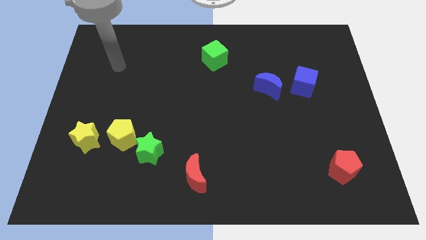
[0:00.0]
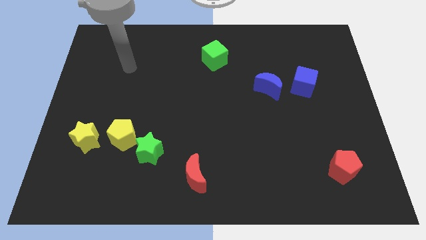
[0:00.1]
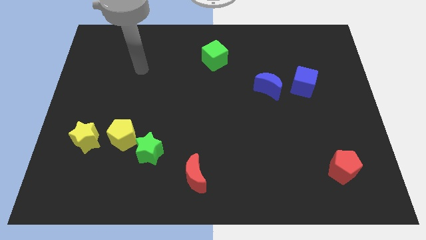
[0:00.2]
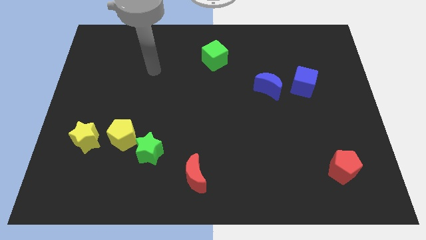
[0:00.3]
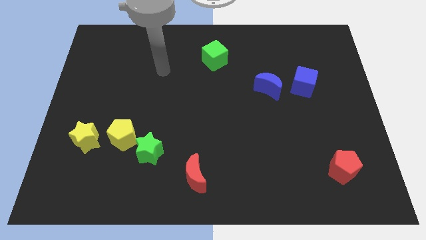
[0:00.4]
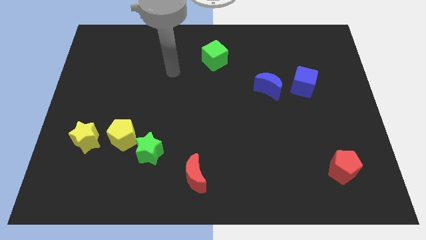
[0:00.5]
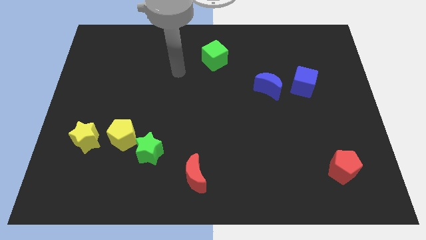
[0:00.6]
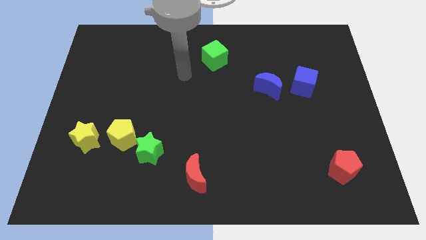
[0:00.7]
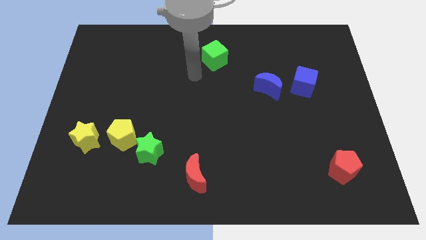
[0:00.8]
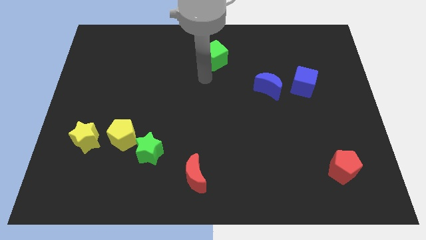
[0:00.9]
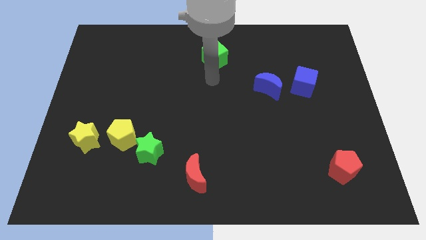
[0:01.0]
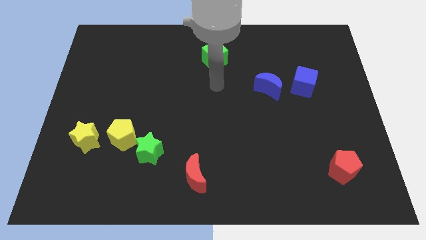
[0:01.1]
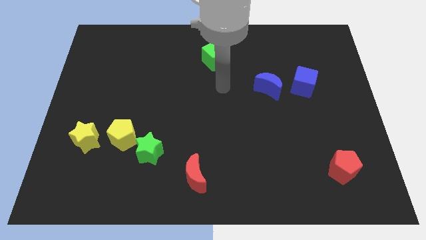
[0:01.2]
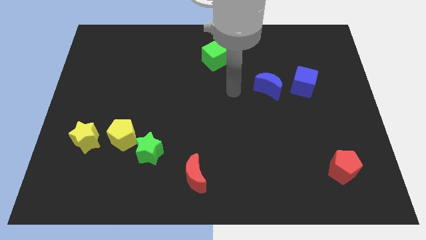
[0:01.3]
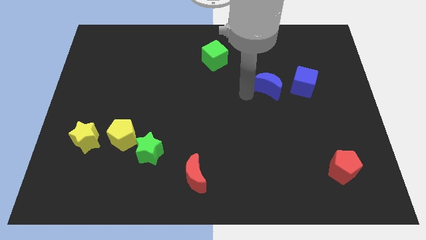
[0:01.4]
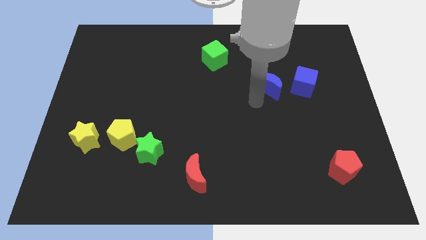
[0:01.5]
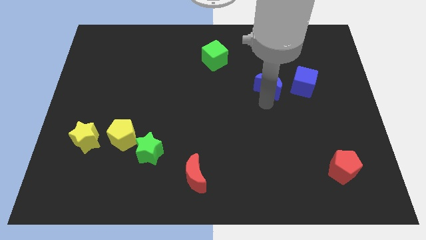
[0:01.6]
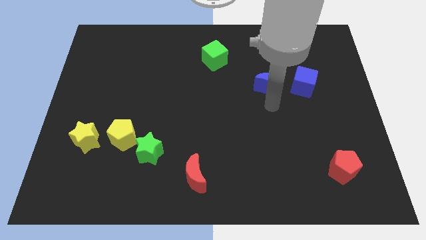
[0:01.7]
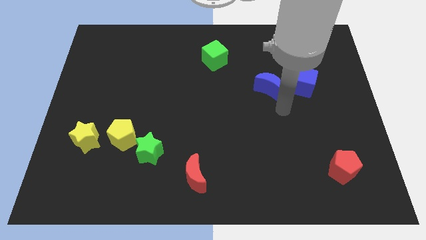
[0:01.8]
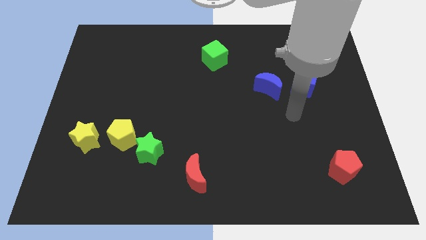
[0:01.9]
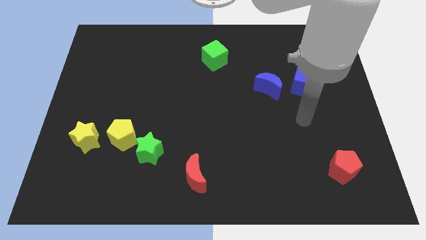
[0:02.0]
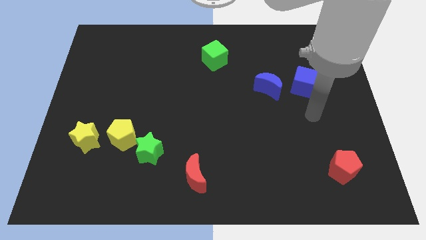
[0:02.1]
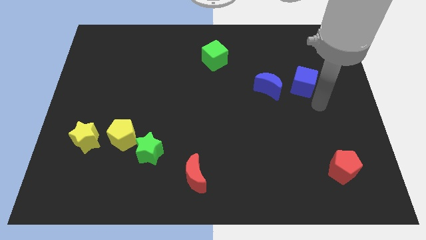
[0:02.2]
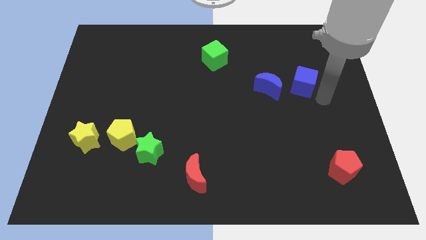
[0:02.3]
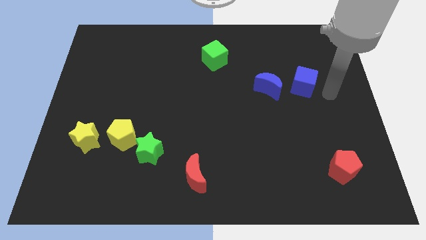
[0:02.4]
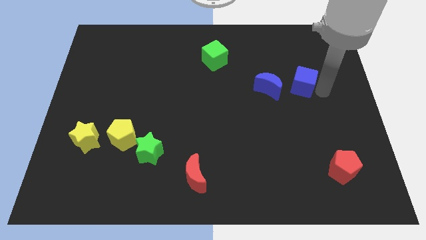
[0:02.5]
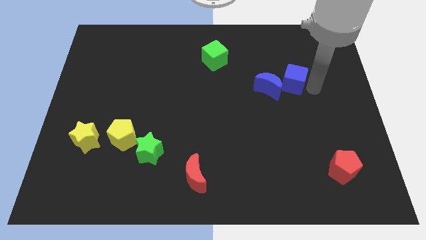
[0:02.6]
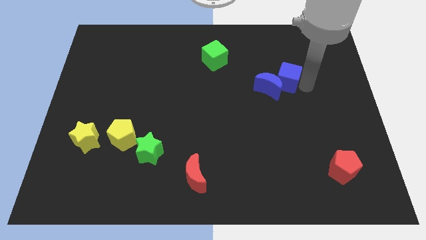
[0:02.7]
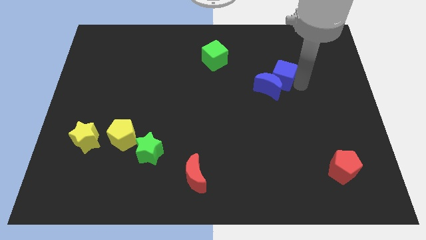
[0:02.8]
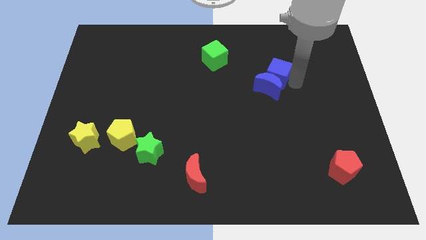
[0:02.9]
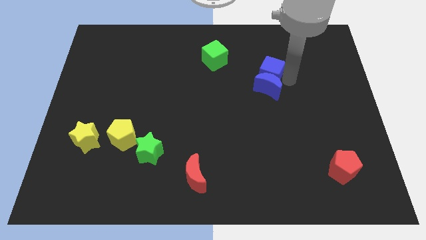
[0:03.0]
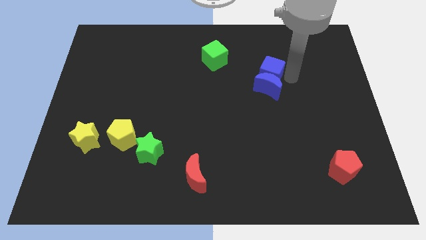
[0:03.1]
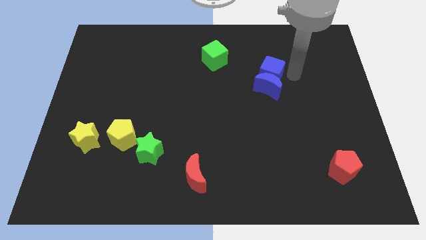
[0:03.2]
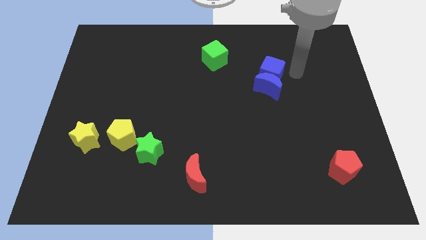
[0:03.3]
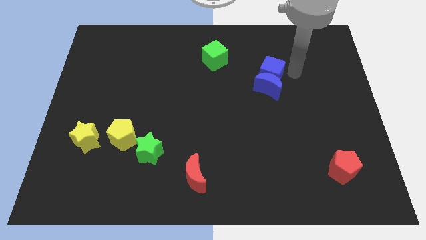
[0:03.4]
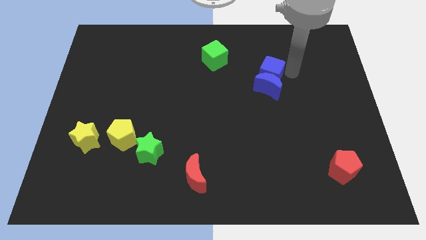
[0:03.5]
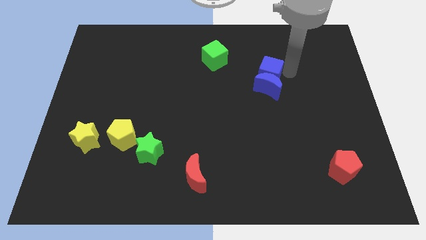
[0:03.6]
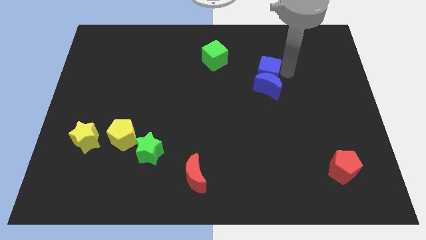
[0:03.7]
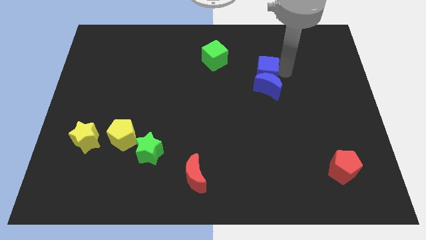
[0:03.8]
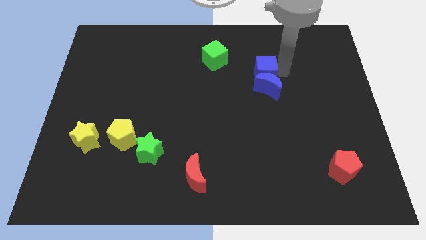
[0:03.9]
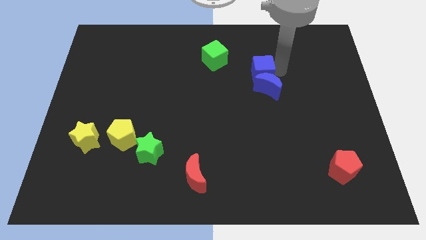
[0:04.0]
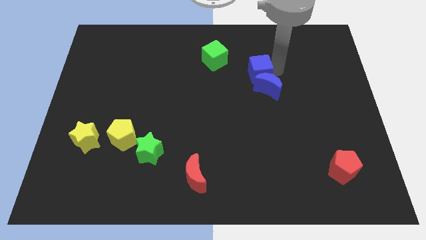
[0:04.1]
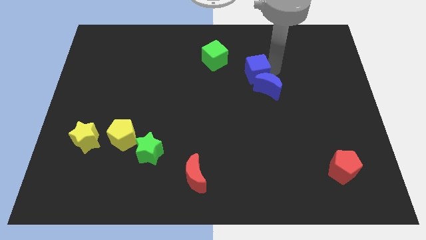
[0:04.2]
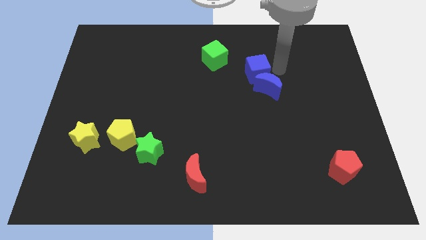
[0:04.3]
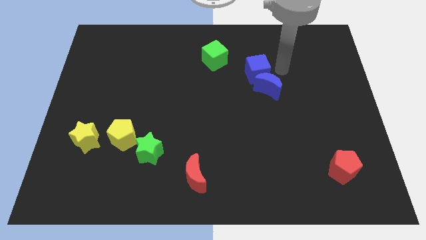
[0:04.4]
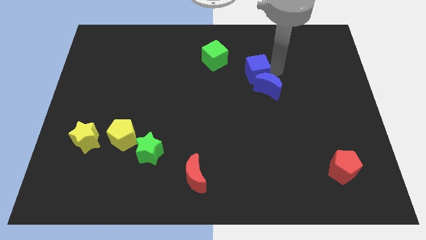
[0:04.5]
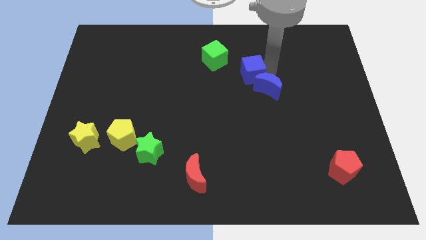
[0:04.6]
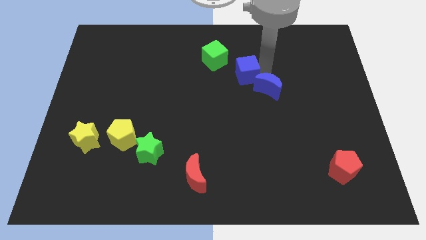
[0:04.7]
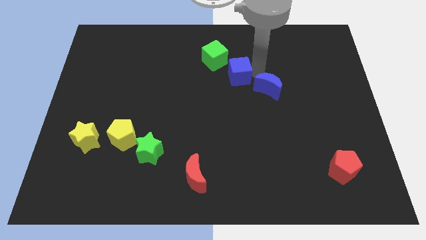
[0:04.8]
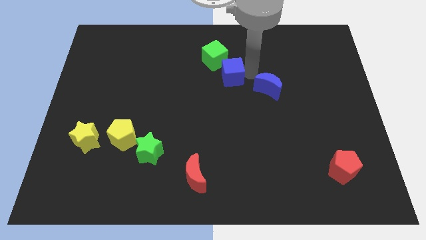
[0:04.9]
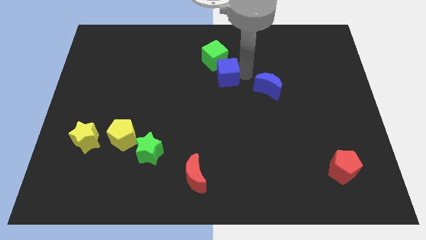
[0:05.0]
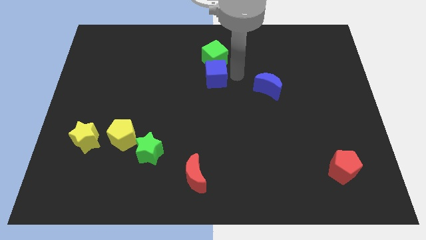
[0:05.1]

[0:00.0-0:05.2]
move the blue cube left

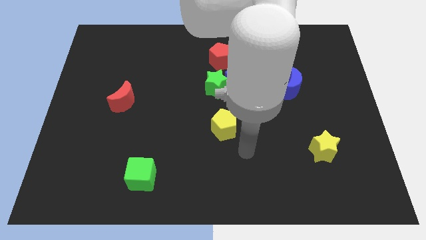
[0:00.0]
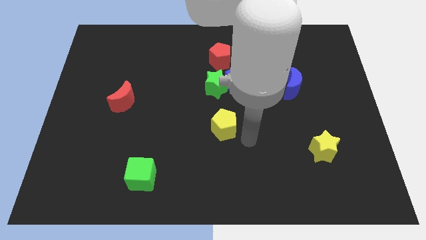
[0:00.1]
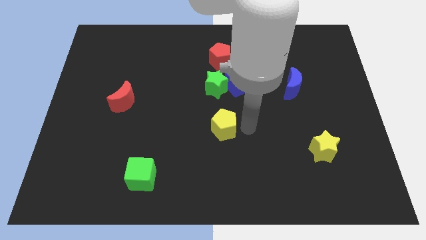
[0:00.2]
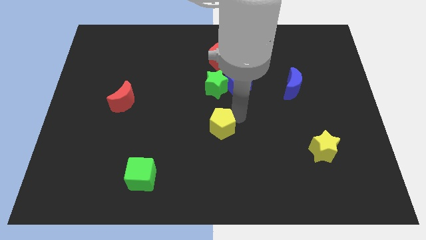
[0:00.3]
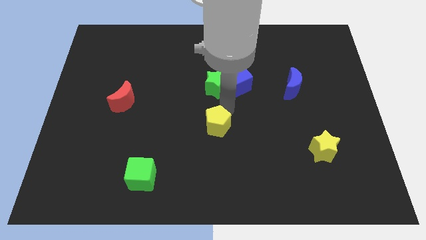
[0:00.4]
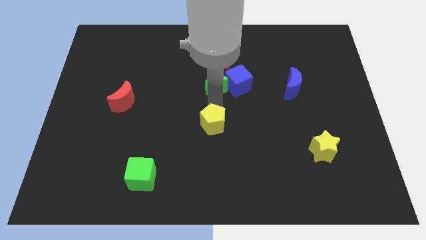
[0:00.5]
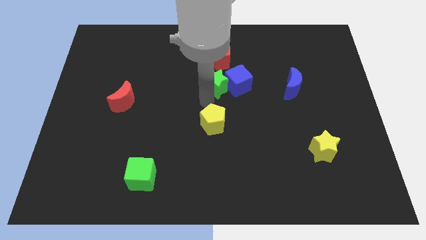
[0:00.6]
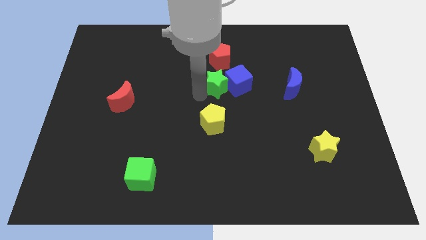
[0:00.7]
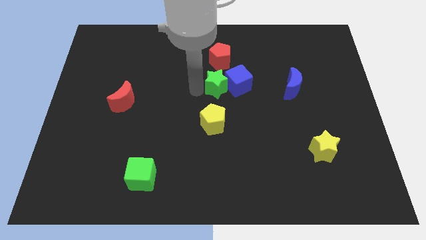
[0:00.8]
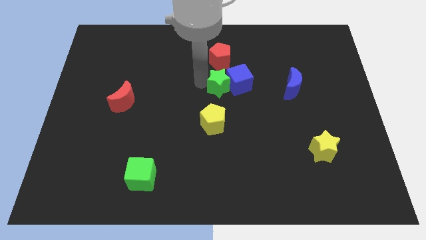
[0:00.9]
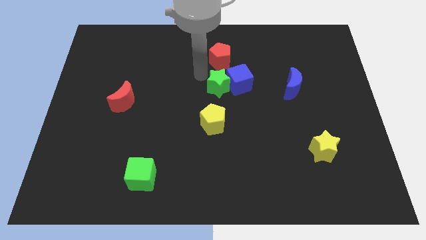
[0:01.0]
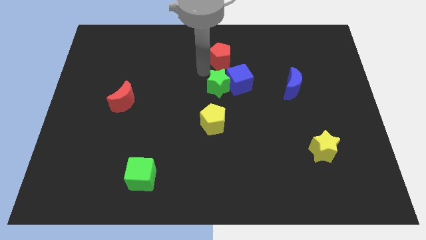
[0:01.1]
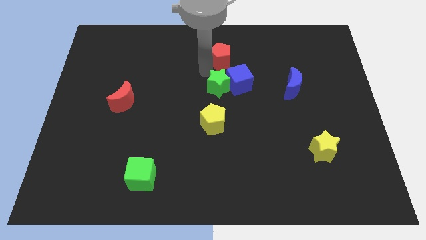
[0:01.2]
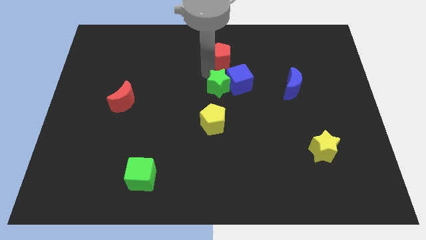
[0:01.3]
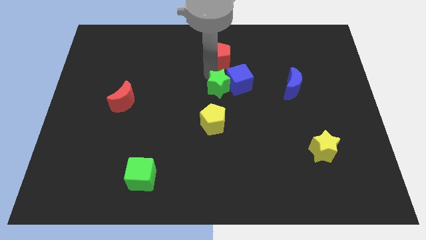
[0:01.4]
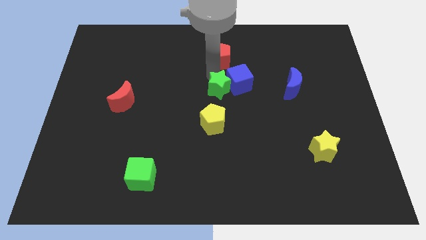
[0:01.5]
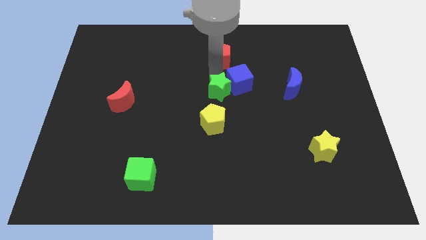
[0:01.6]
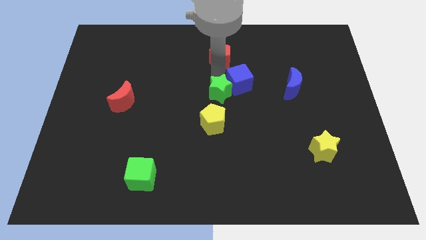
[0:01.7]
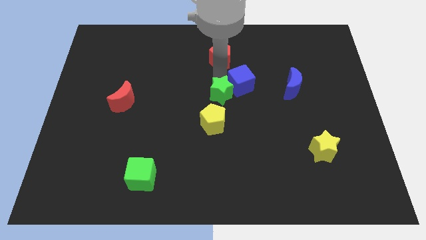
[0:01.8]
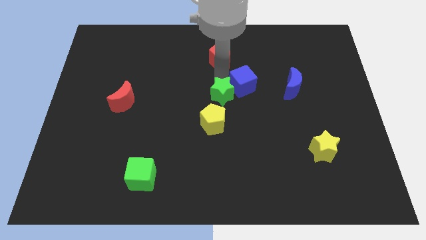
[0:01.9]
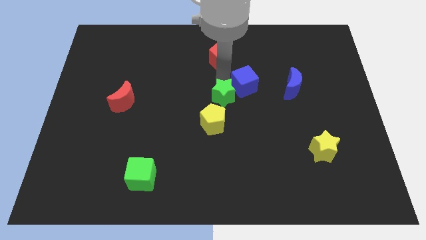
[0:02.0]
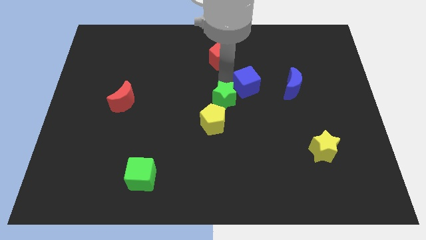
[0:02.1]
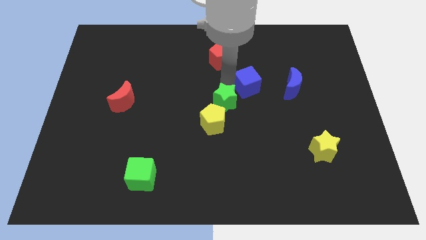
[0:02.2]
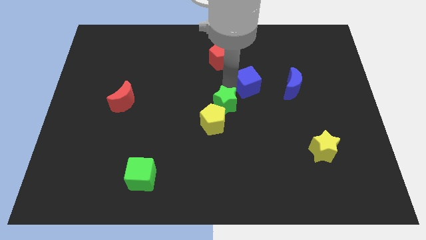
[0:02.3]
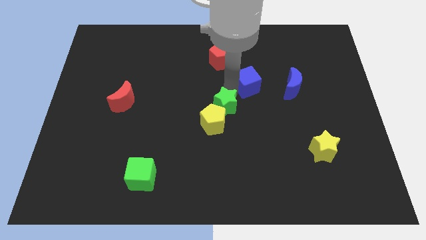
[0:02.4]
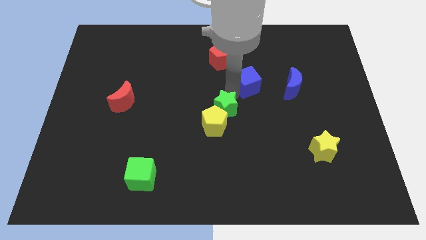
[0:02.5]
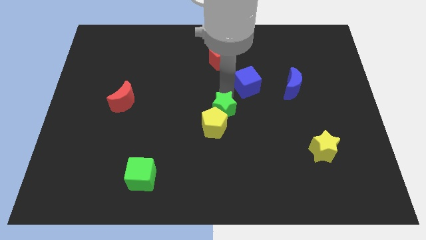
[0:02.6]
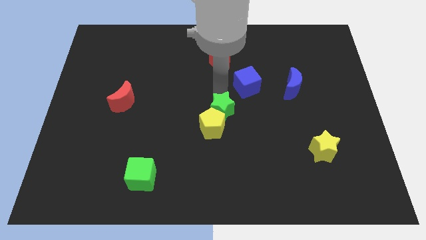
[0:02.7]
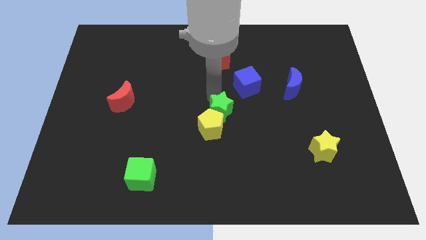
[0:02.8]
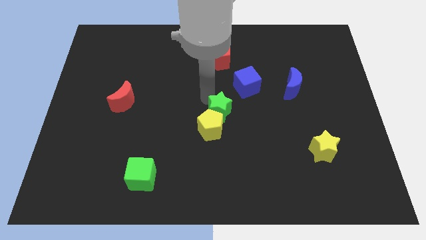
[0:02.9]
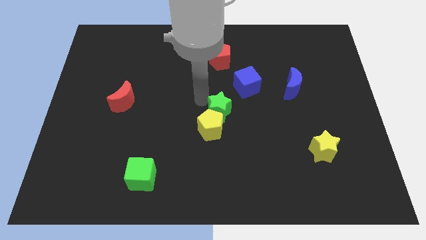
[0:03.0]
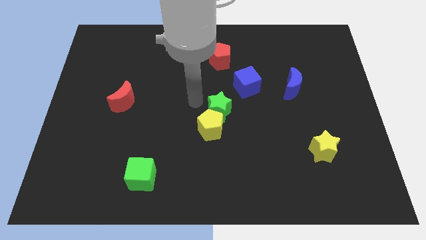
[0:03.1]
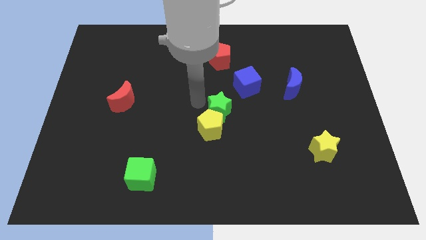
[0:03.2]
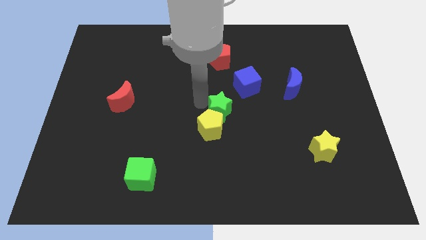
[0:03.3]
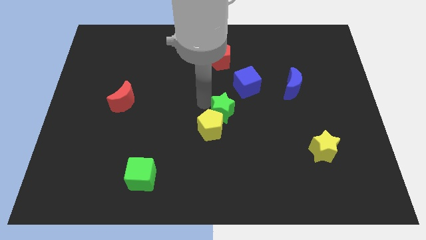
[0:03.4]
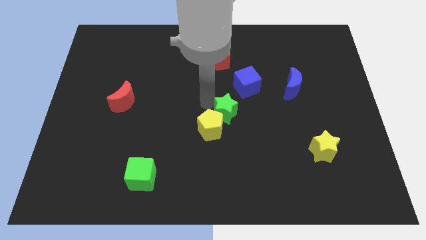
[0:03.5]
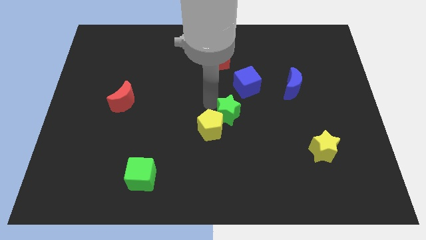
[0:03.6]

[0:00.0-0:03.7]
move the green star a little down and then right
